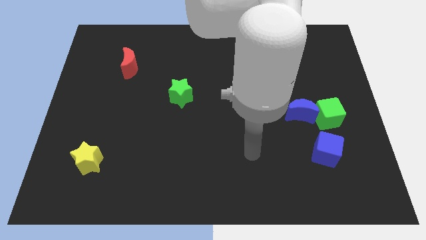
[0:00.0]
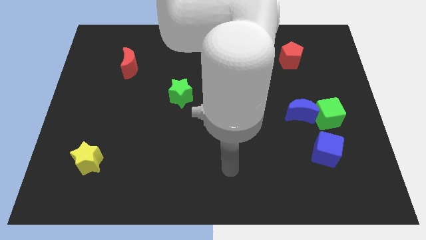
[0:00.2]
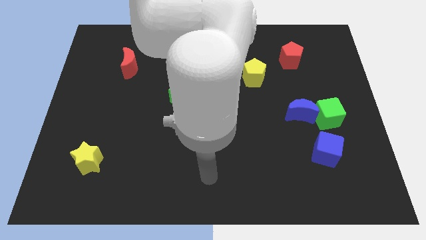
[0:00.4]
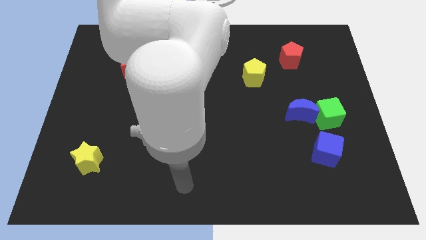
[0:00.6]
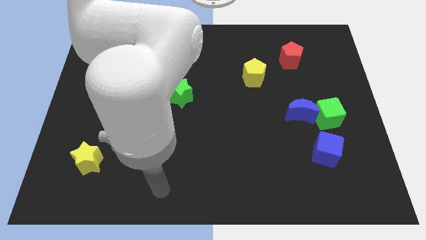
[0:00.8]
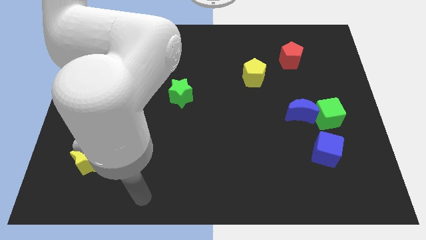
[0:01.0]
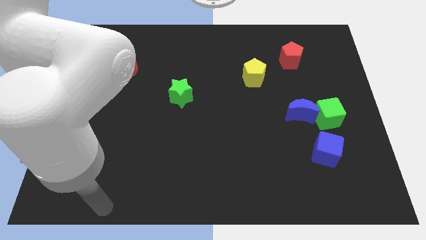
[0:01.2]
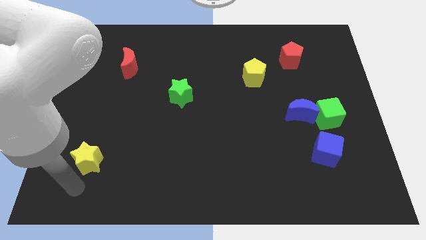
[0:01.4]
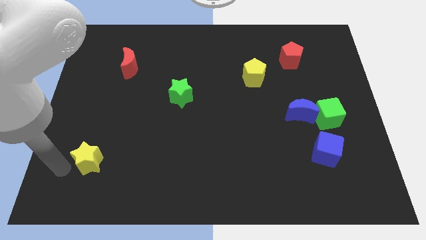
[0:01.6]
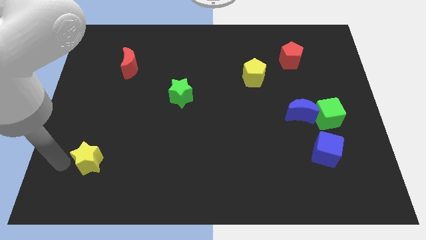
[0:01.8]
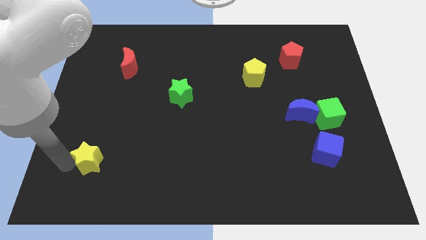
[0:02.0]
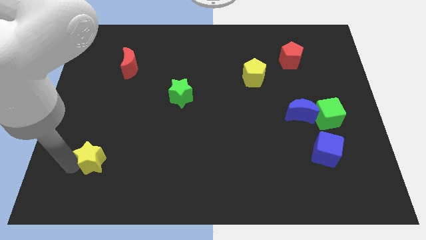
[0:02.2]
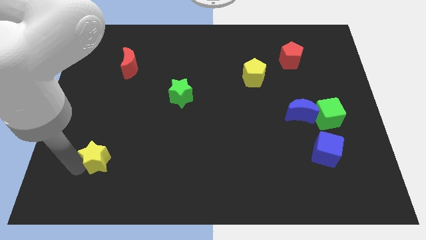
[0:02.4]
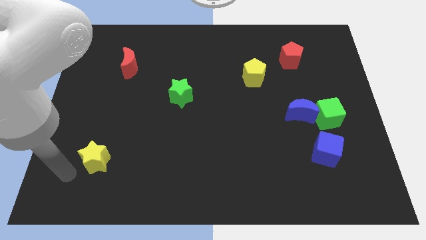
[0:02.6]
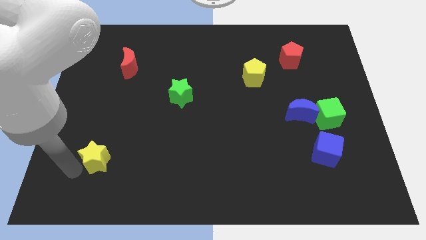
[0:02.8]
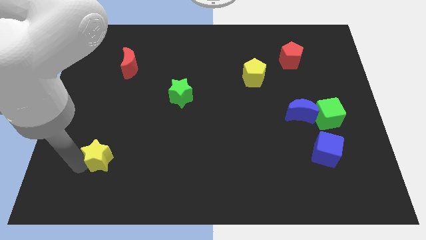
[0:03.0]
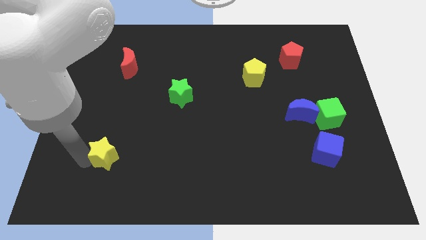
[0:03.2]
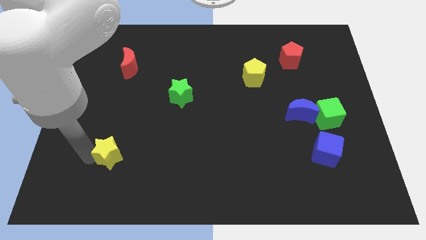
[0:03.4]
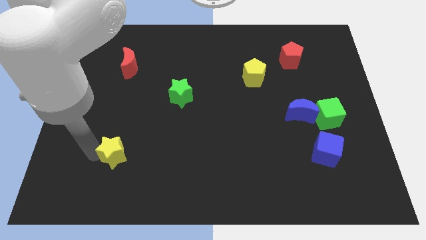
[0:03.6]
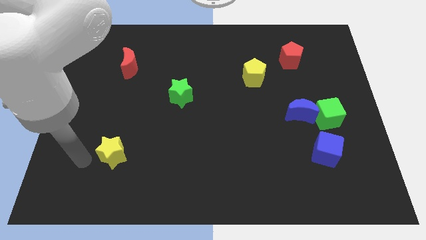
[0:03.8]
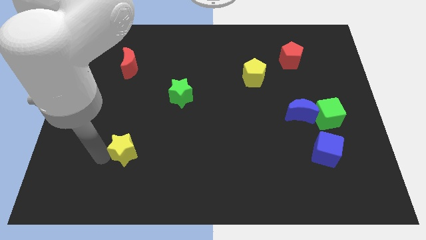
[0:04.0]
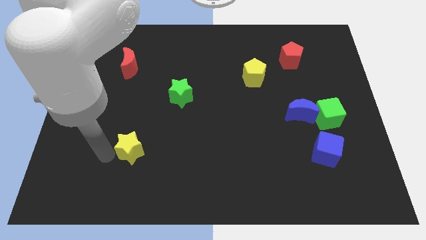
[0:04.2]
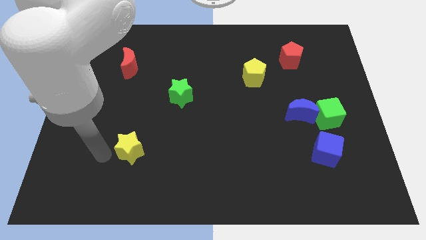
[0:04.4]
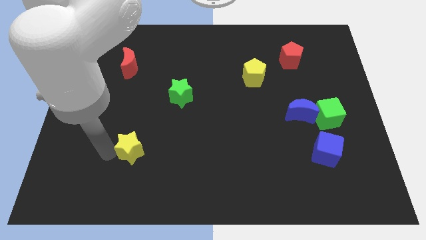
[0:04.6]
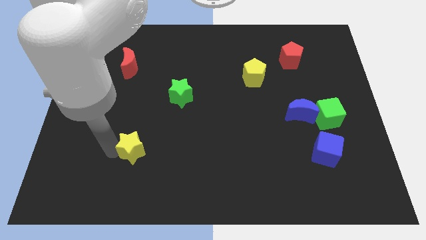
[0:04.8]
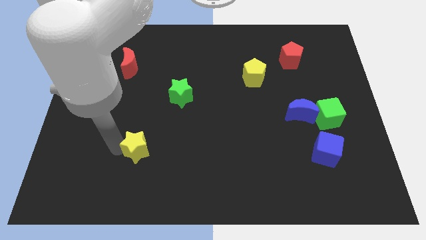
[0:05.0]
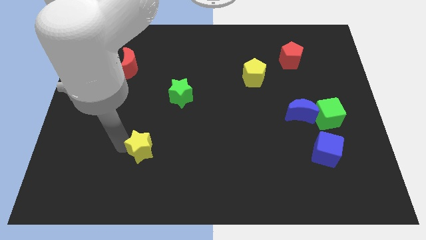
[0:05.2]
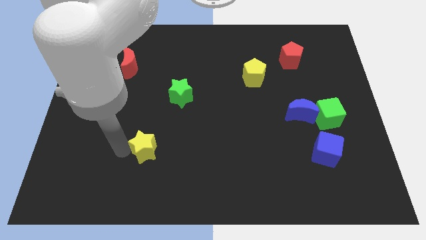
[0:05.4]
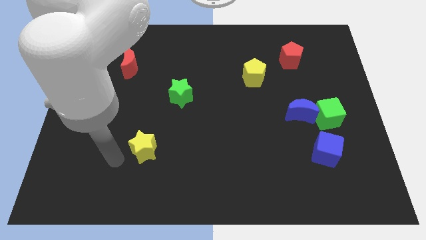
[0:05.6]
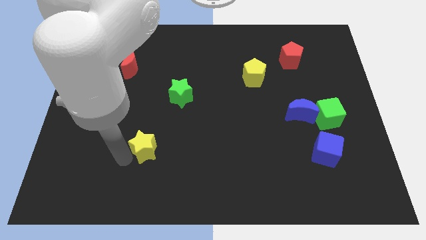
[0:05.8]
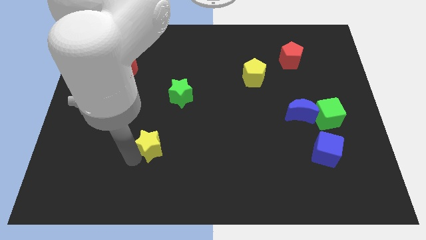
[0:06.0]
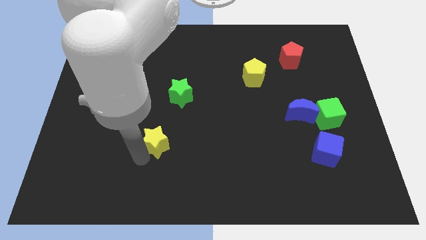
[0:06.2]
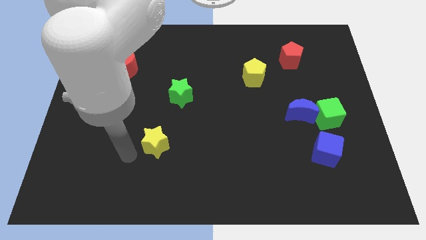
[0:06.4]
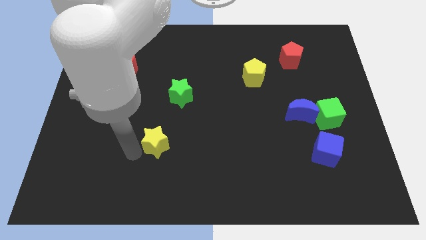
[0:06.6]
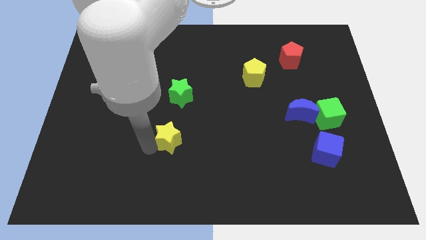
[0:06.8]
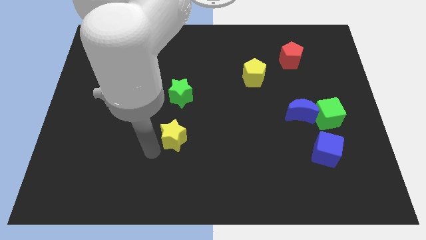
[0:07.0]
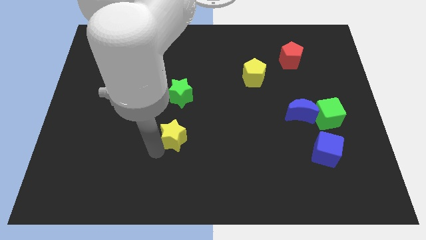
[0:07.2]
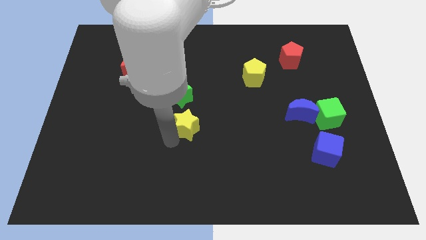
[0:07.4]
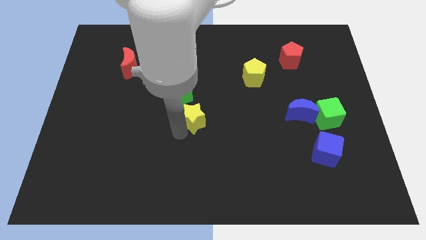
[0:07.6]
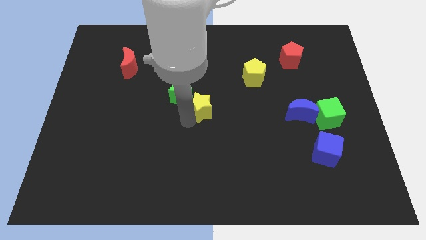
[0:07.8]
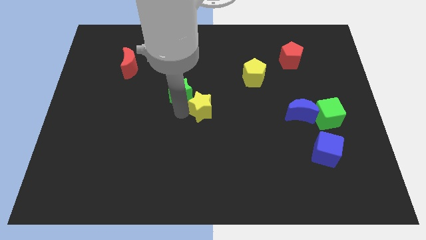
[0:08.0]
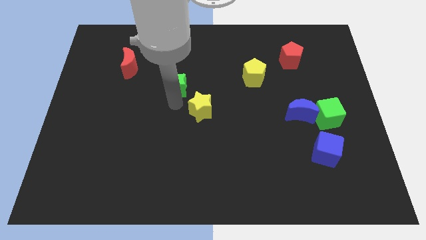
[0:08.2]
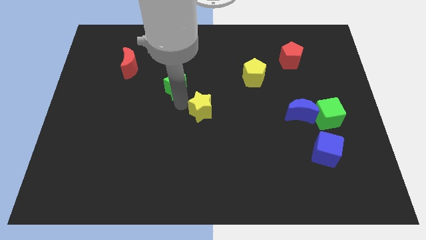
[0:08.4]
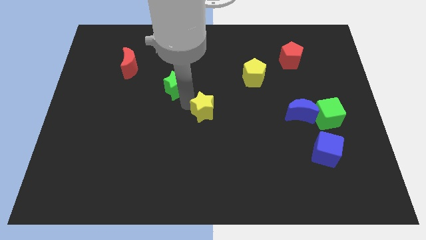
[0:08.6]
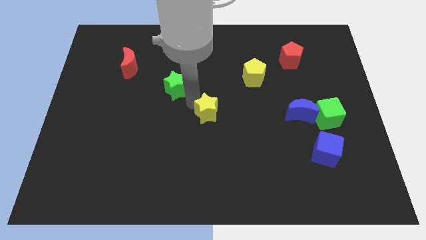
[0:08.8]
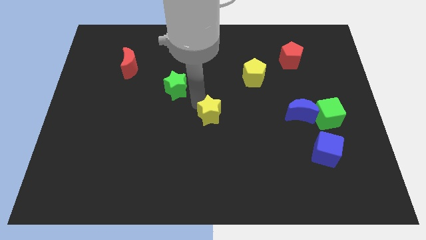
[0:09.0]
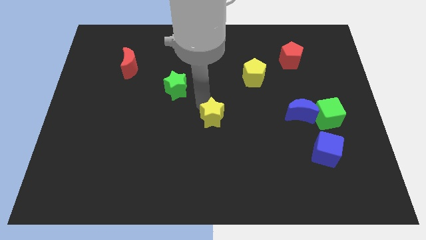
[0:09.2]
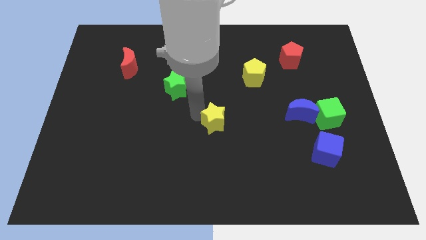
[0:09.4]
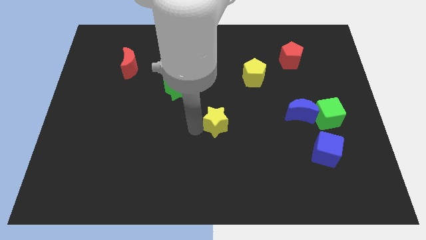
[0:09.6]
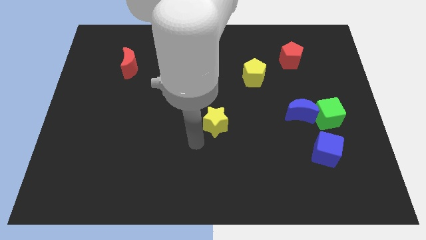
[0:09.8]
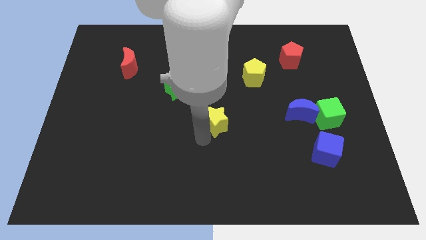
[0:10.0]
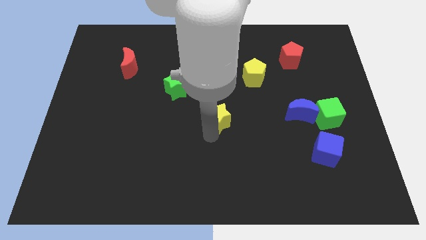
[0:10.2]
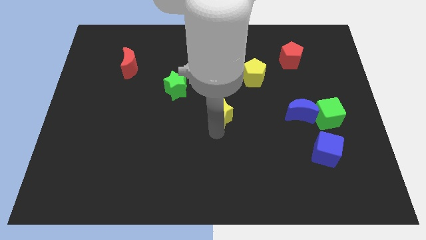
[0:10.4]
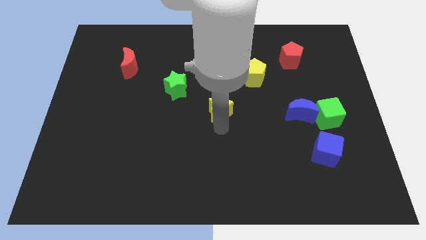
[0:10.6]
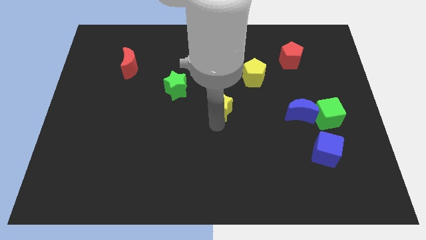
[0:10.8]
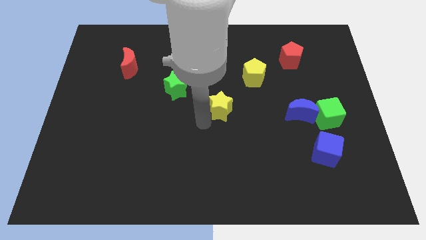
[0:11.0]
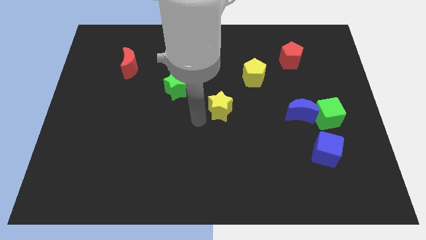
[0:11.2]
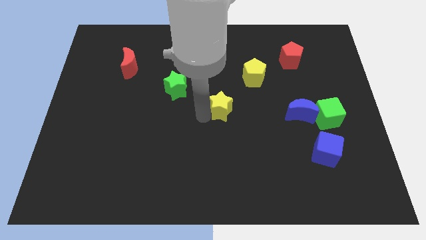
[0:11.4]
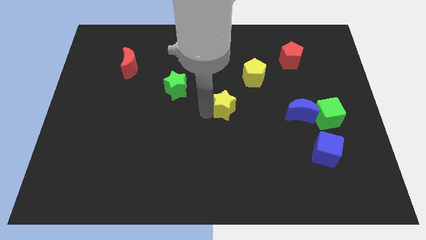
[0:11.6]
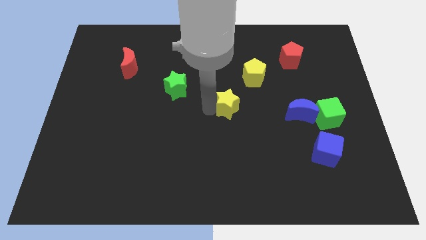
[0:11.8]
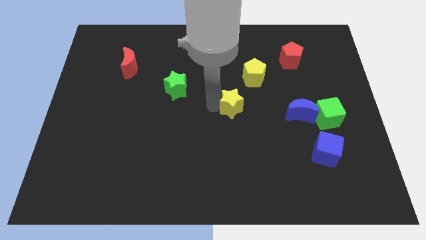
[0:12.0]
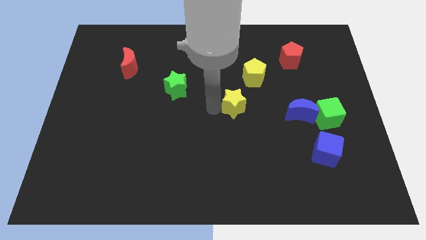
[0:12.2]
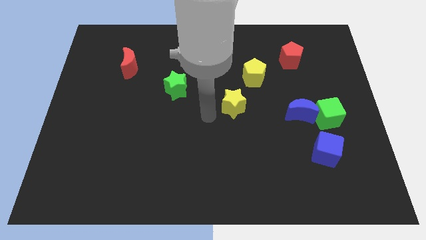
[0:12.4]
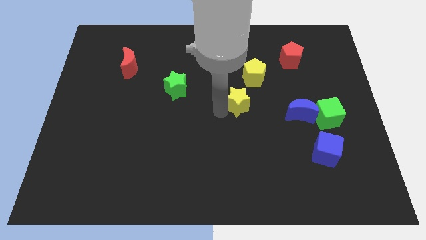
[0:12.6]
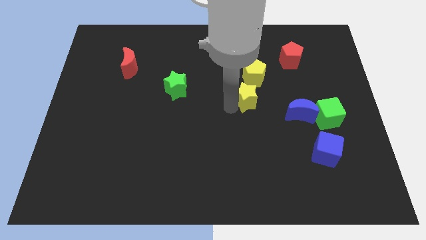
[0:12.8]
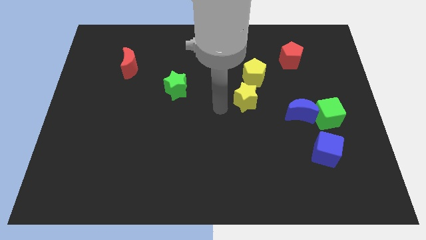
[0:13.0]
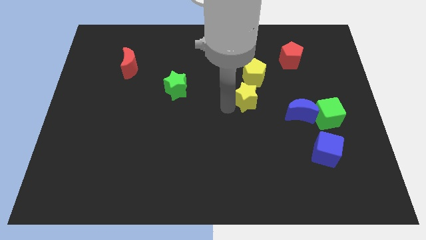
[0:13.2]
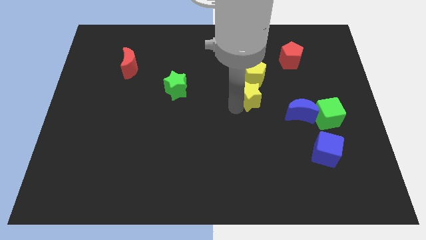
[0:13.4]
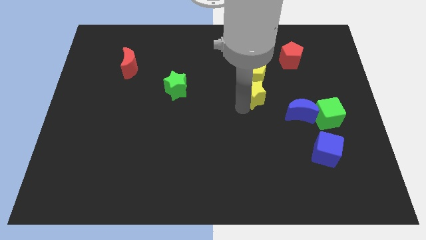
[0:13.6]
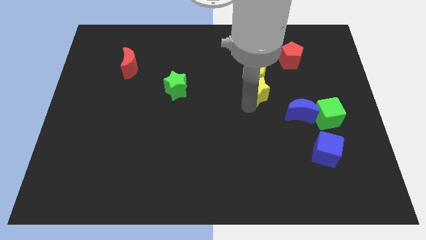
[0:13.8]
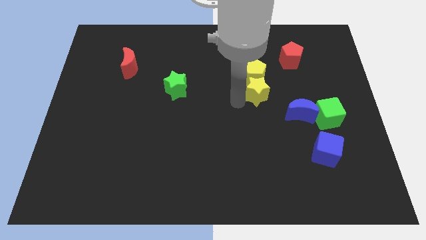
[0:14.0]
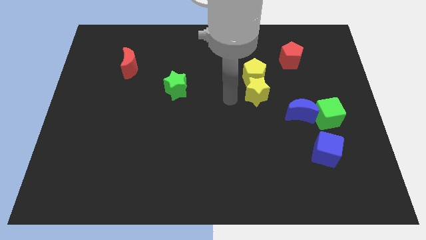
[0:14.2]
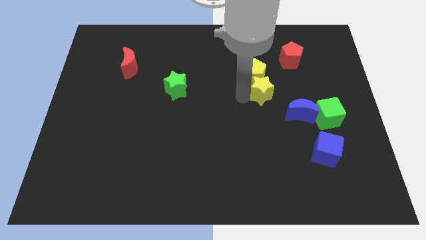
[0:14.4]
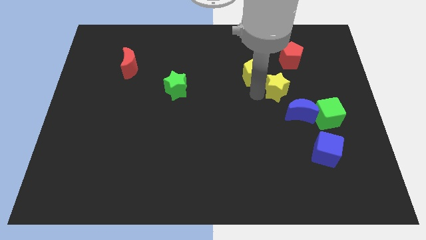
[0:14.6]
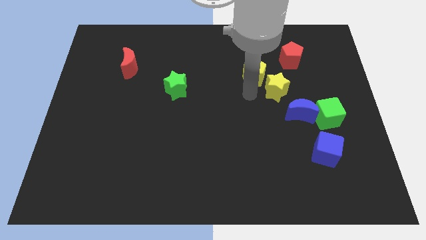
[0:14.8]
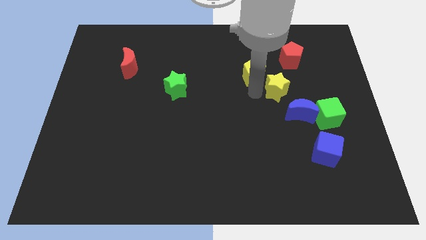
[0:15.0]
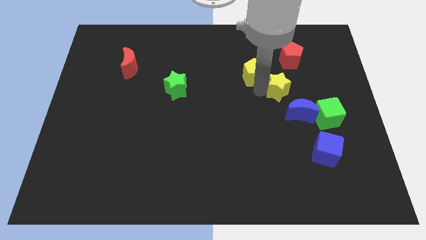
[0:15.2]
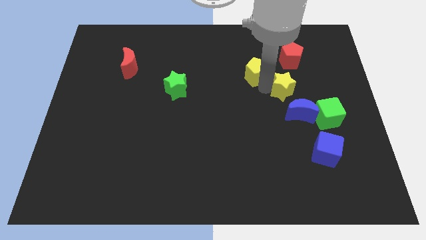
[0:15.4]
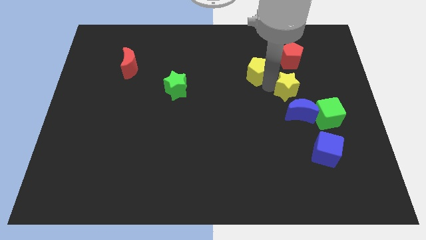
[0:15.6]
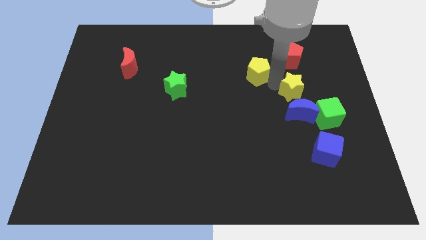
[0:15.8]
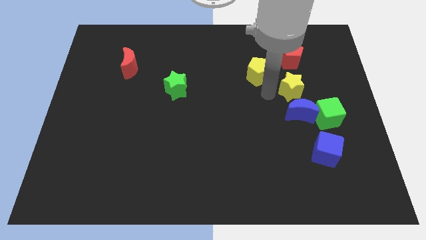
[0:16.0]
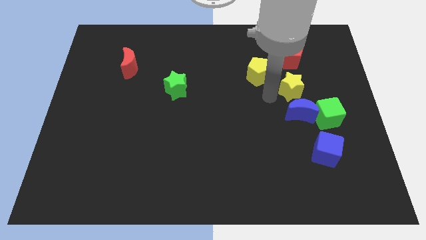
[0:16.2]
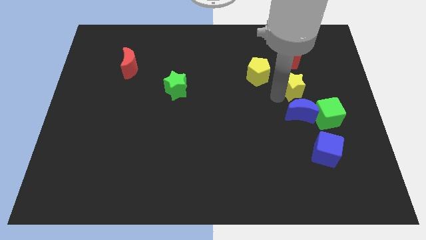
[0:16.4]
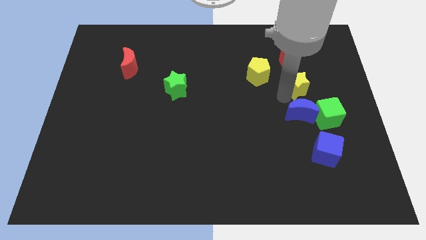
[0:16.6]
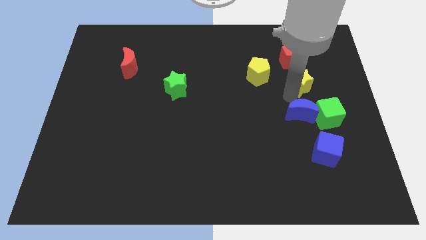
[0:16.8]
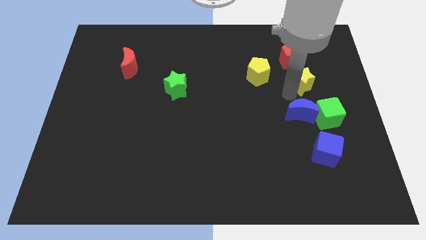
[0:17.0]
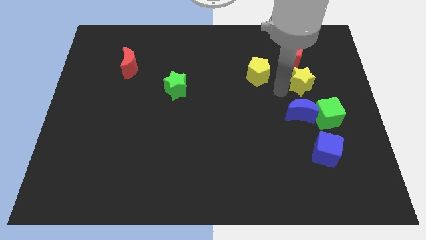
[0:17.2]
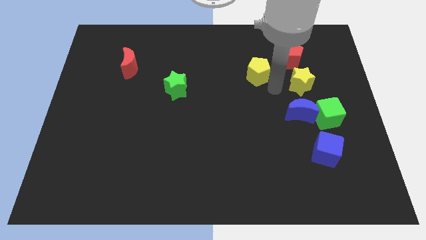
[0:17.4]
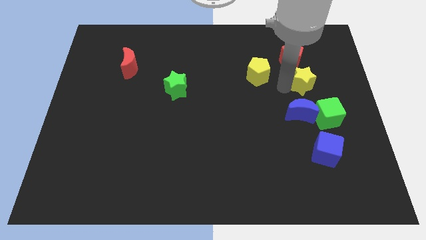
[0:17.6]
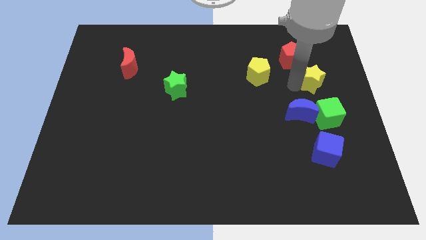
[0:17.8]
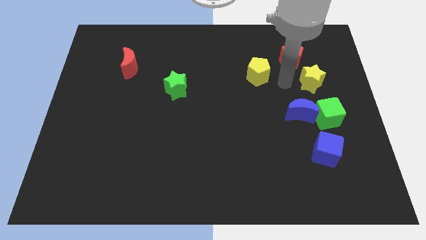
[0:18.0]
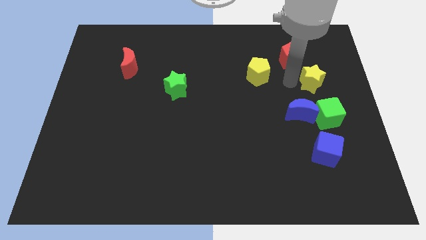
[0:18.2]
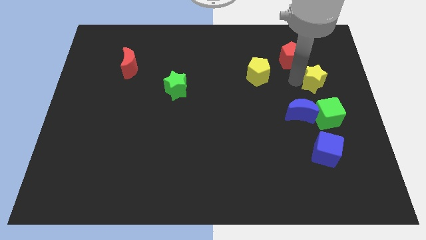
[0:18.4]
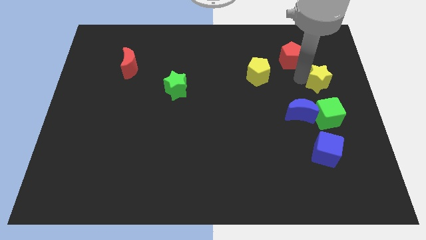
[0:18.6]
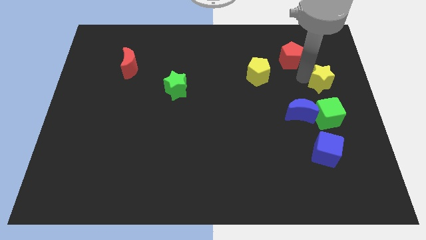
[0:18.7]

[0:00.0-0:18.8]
put the yellow star to the center right
